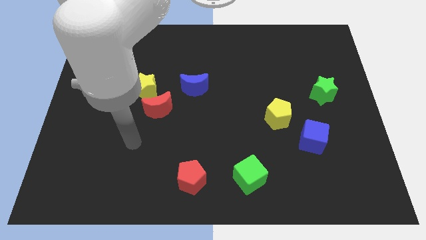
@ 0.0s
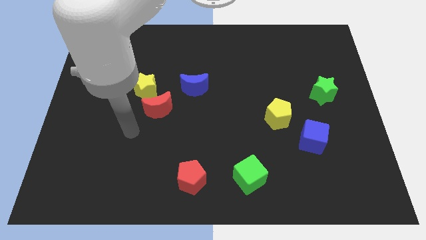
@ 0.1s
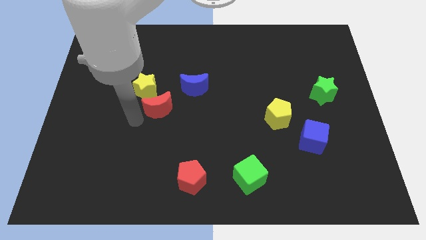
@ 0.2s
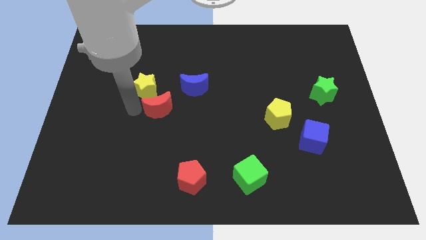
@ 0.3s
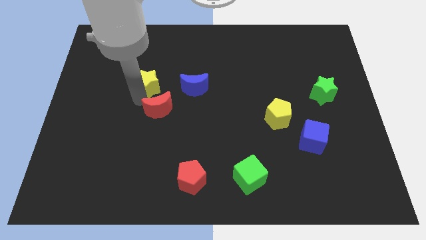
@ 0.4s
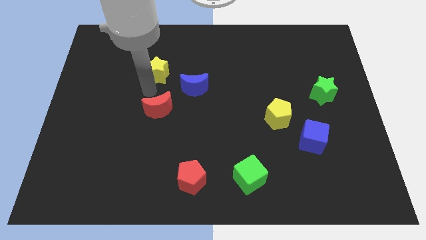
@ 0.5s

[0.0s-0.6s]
pull the red moon apart from the yellow star

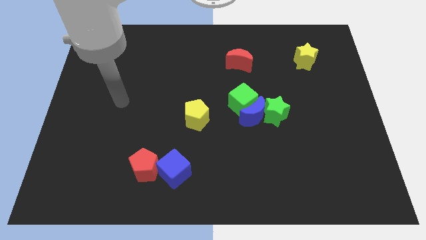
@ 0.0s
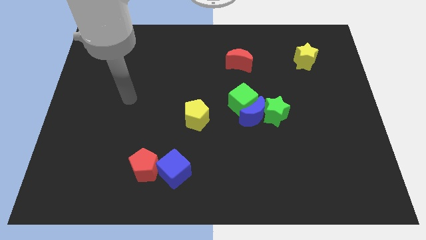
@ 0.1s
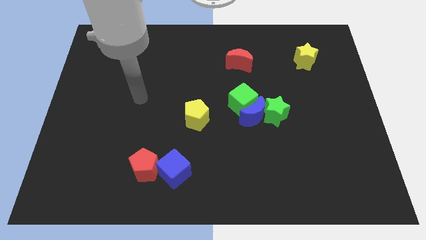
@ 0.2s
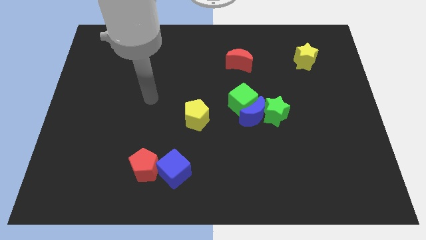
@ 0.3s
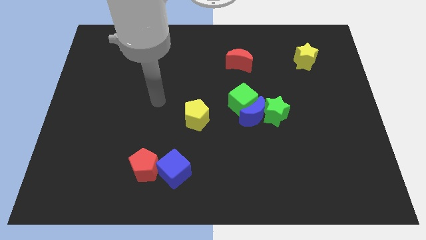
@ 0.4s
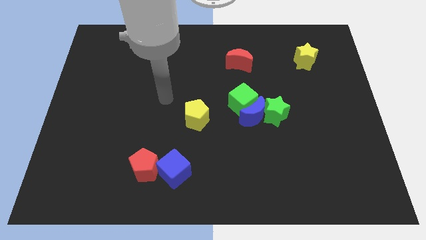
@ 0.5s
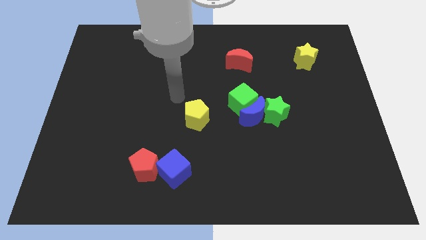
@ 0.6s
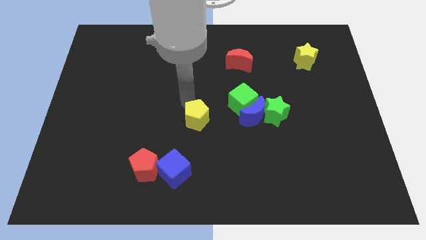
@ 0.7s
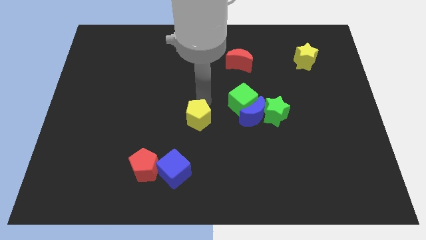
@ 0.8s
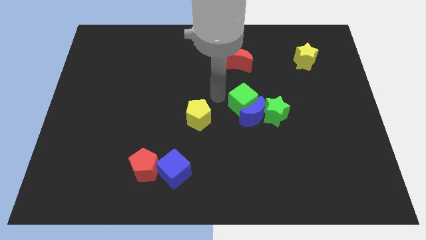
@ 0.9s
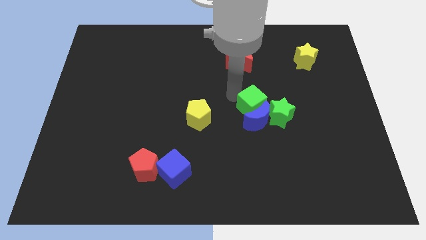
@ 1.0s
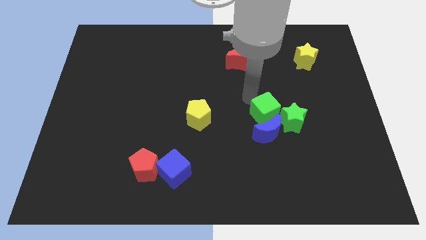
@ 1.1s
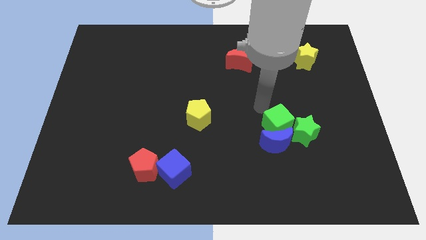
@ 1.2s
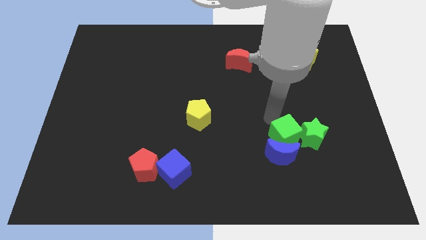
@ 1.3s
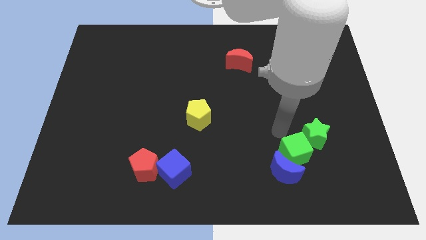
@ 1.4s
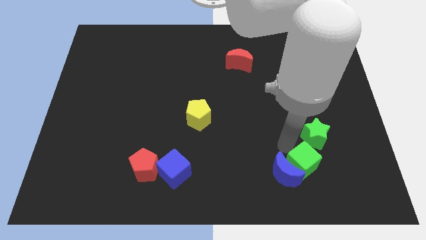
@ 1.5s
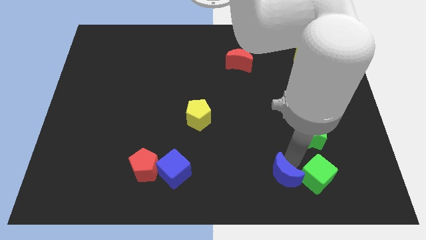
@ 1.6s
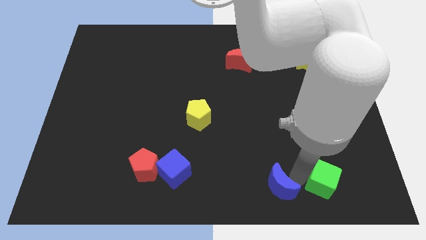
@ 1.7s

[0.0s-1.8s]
move the blue moon away from the green cube and green star

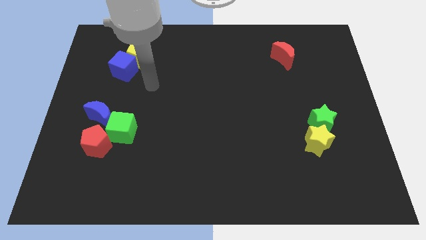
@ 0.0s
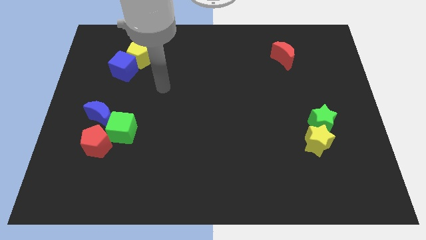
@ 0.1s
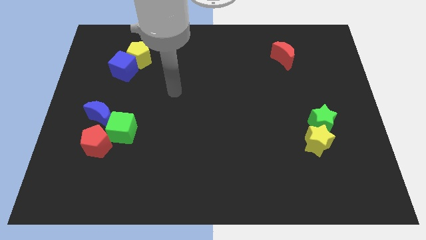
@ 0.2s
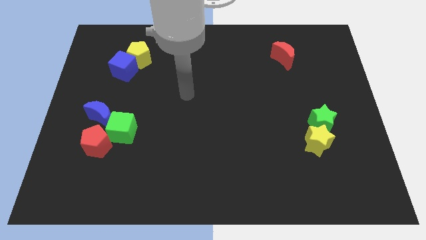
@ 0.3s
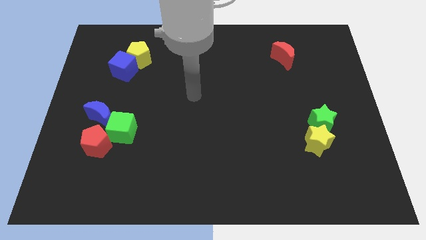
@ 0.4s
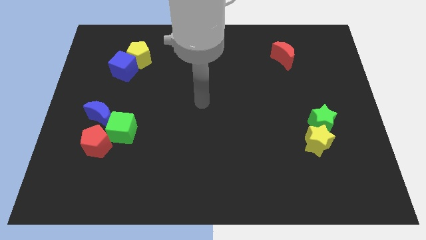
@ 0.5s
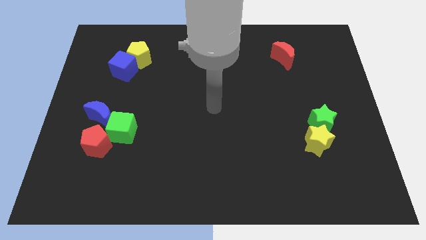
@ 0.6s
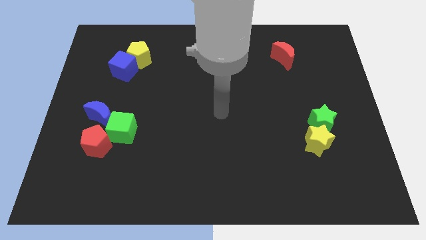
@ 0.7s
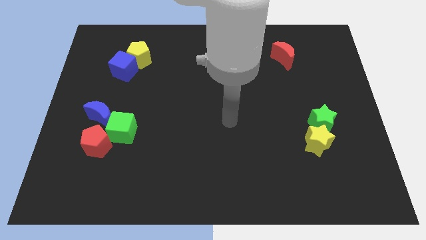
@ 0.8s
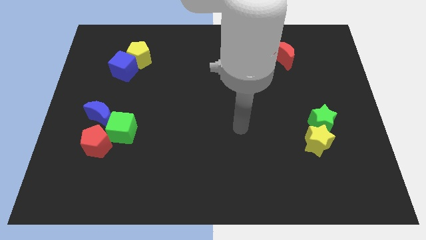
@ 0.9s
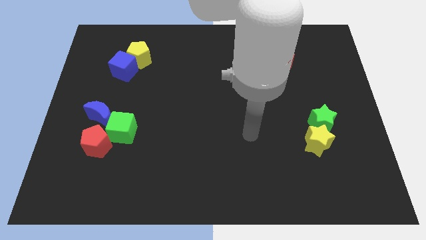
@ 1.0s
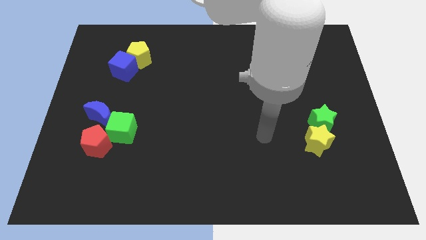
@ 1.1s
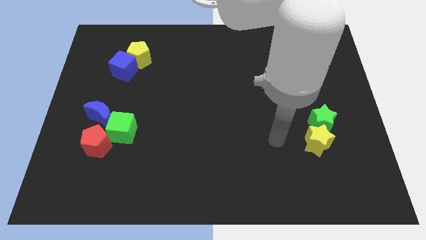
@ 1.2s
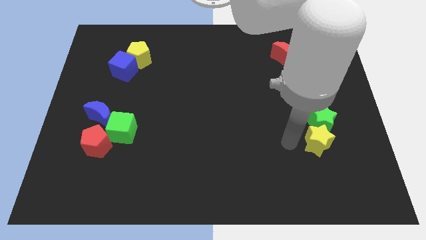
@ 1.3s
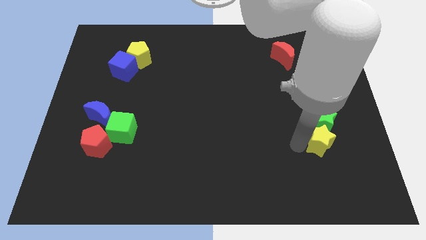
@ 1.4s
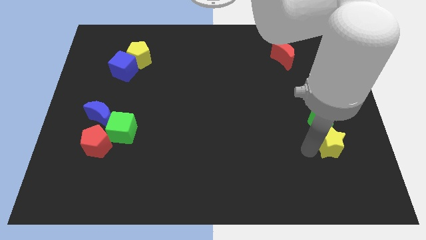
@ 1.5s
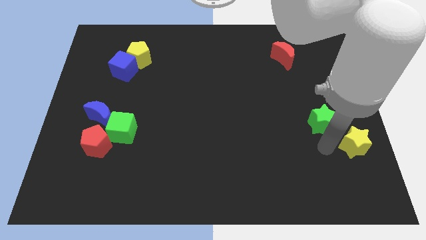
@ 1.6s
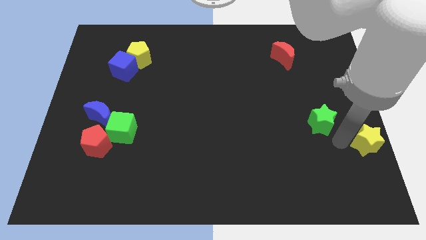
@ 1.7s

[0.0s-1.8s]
pull the green star apart from the yellow star

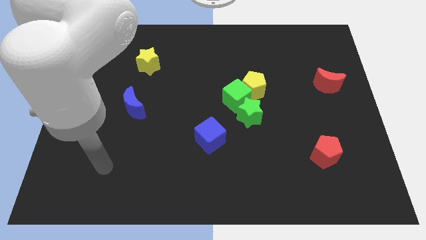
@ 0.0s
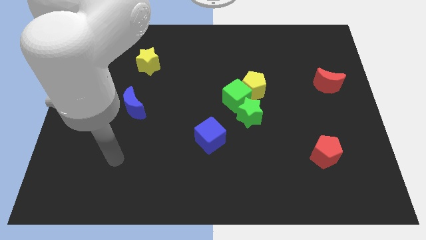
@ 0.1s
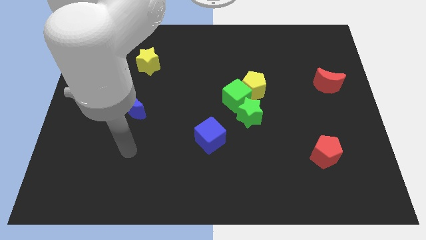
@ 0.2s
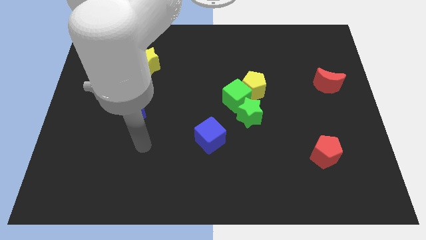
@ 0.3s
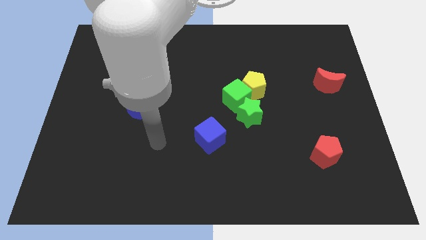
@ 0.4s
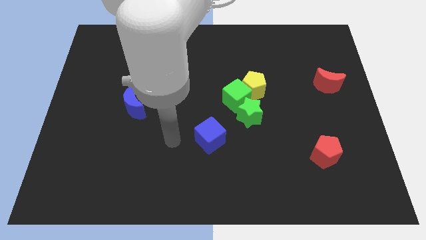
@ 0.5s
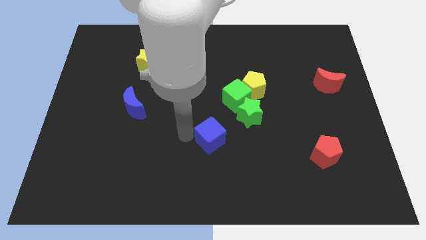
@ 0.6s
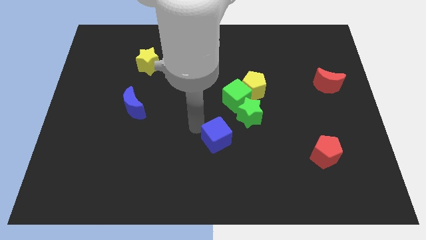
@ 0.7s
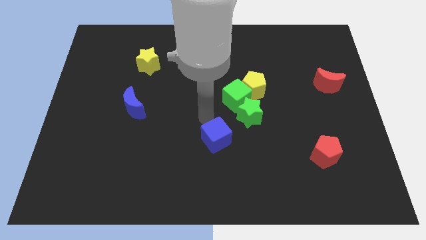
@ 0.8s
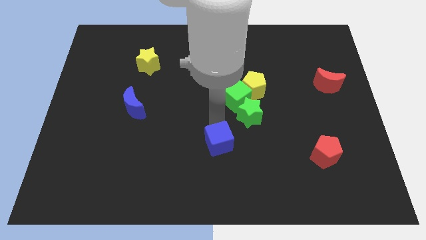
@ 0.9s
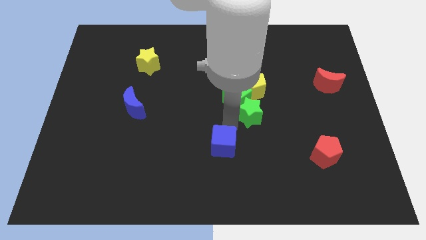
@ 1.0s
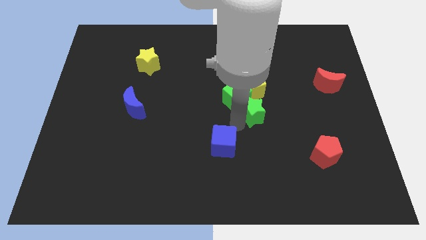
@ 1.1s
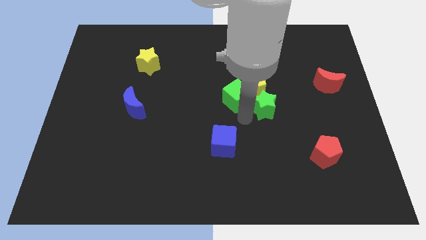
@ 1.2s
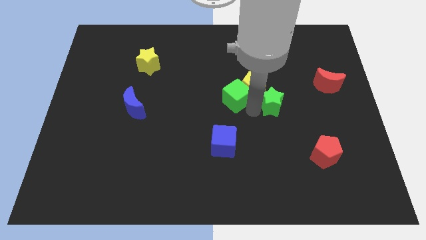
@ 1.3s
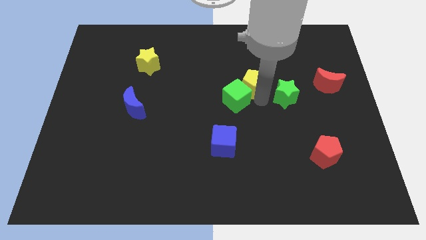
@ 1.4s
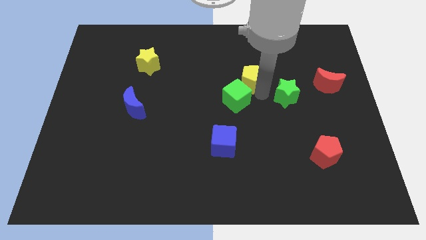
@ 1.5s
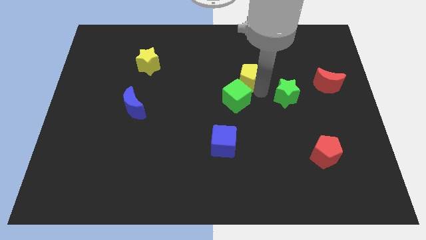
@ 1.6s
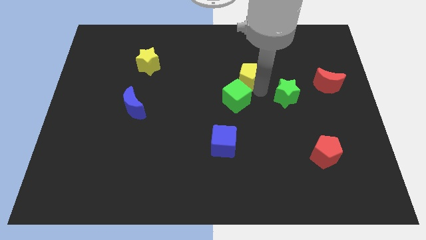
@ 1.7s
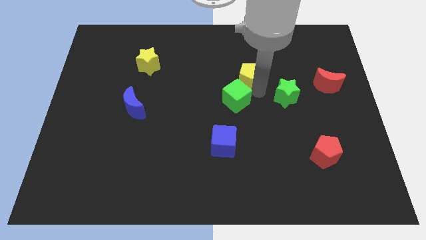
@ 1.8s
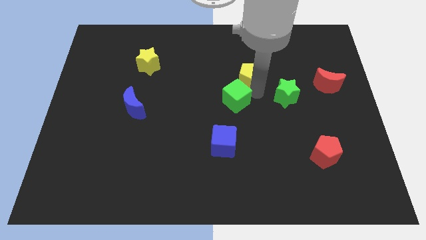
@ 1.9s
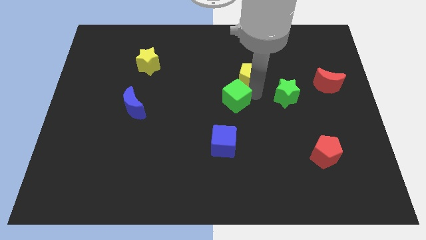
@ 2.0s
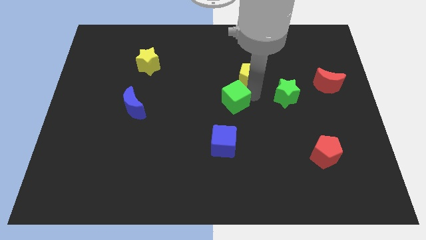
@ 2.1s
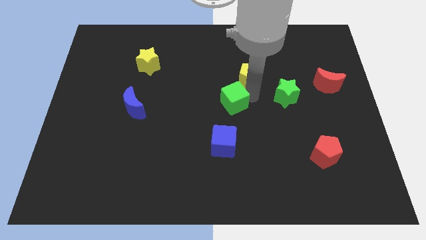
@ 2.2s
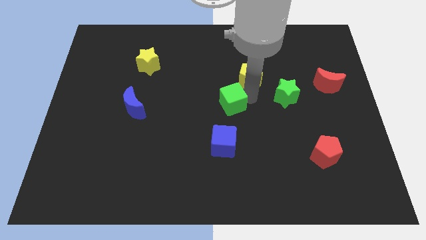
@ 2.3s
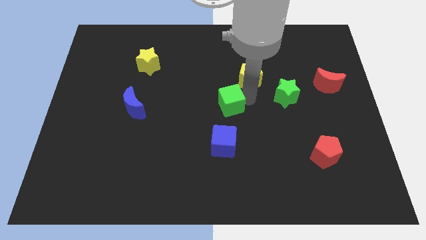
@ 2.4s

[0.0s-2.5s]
pull the green cube apart from the yellow pentagon and green star

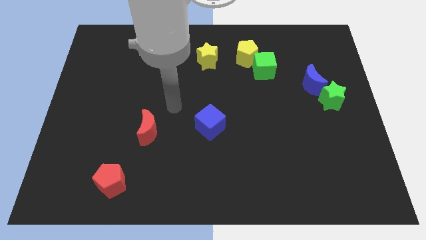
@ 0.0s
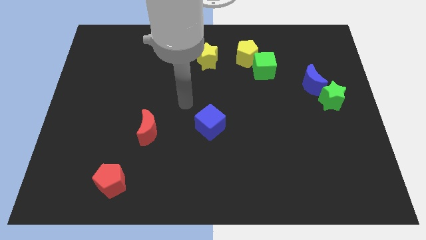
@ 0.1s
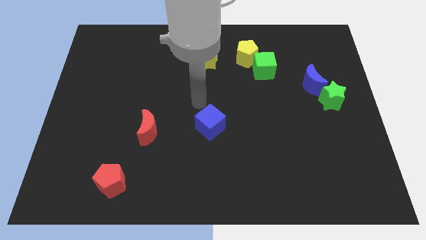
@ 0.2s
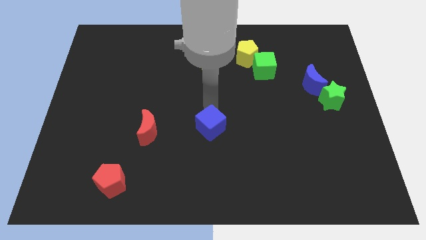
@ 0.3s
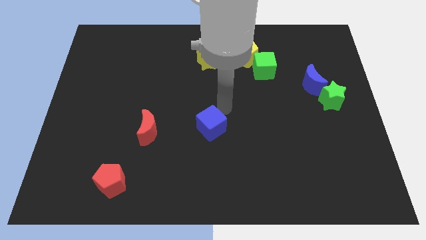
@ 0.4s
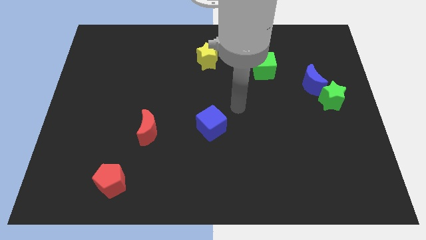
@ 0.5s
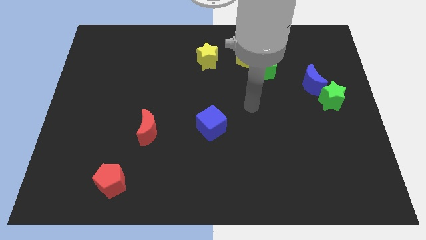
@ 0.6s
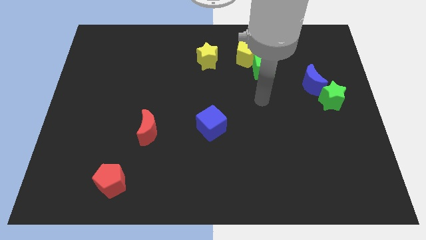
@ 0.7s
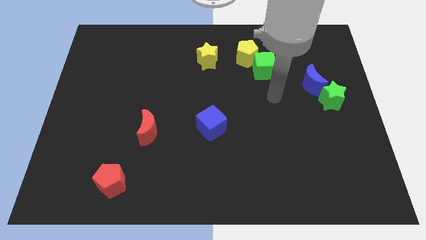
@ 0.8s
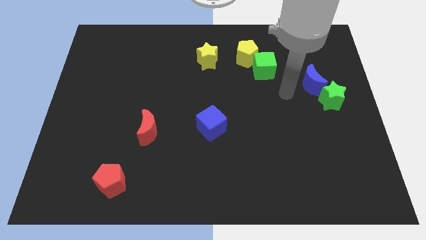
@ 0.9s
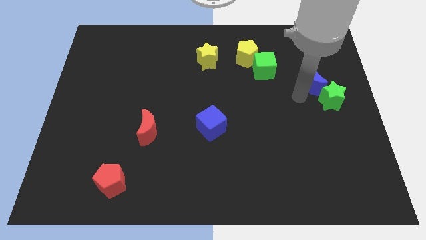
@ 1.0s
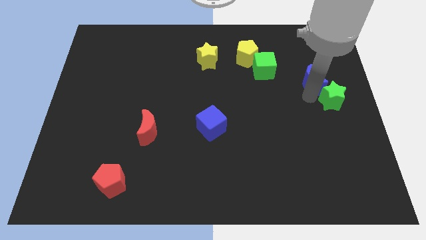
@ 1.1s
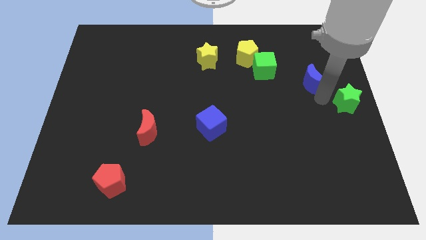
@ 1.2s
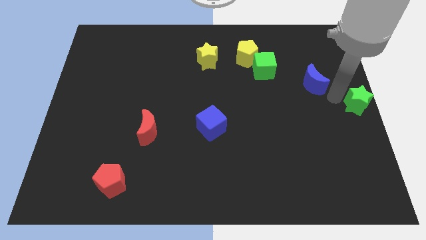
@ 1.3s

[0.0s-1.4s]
move the blue moon away from the green star

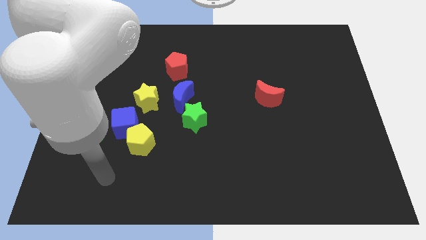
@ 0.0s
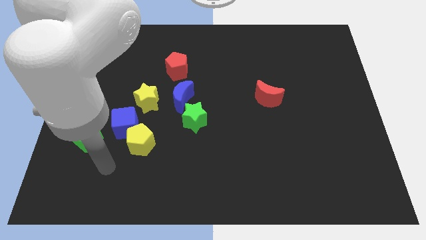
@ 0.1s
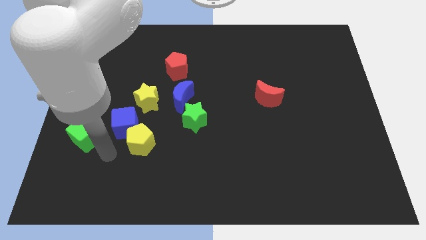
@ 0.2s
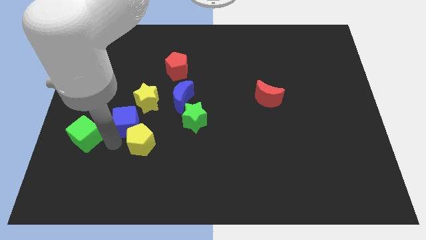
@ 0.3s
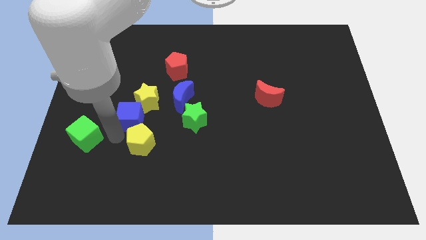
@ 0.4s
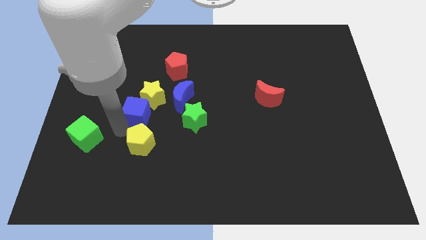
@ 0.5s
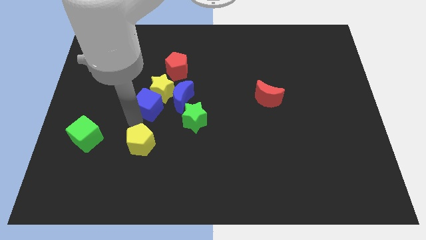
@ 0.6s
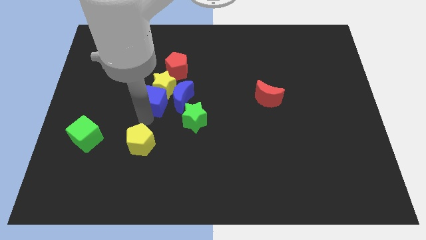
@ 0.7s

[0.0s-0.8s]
separate the yellow pentagon from the blue cube

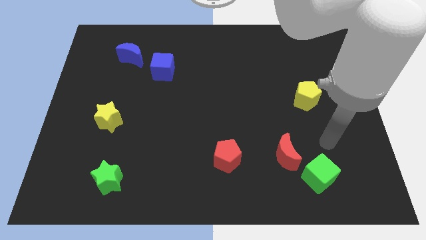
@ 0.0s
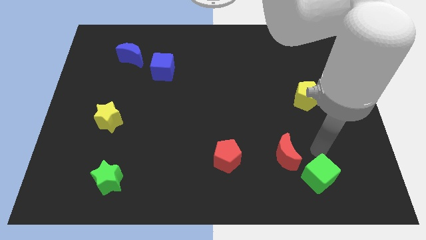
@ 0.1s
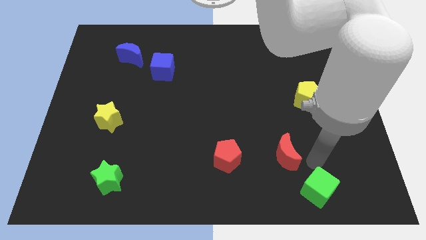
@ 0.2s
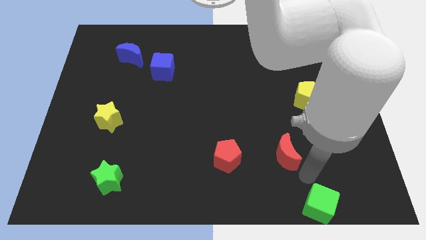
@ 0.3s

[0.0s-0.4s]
move the red moon away from the green cube
